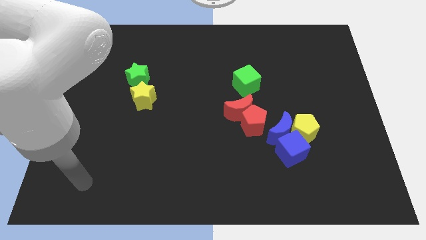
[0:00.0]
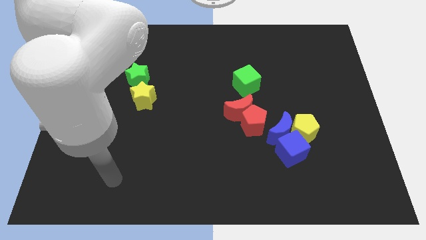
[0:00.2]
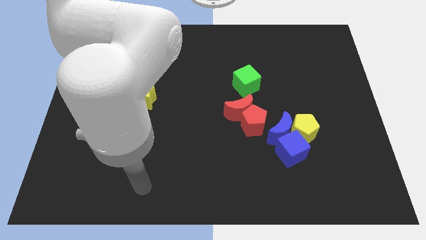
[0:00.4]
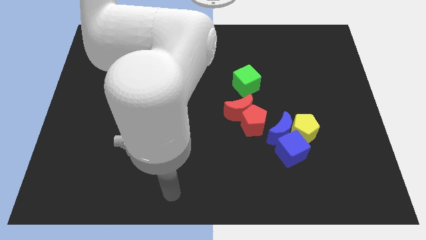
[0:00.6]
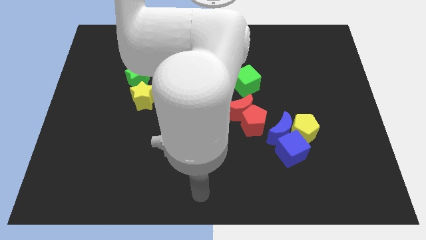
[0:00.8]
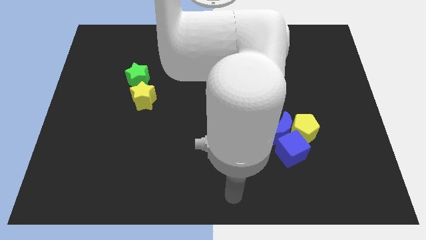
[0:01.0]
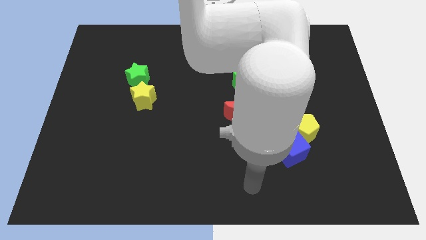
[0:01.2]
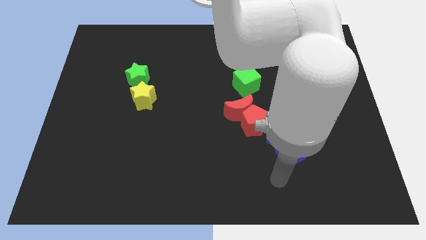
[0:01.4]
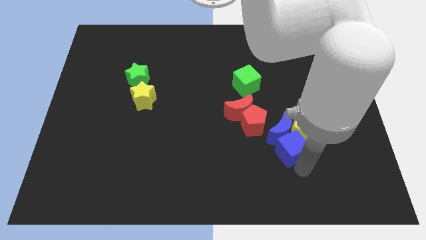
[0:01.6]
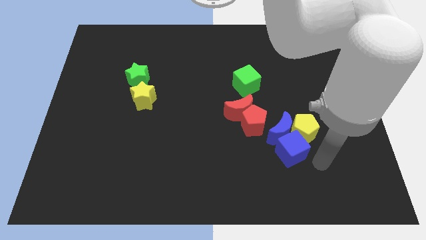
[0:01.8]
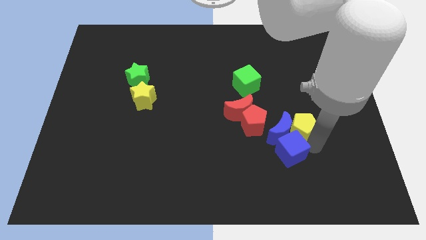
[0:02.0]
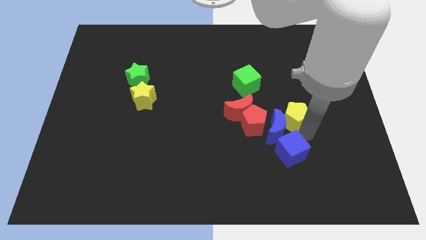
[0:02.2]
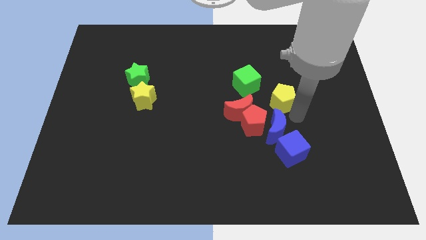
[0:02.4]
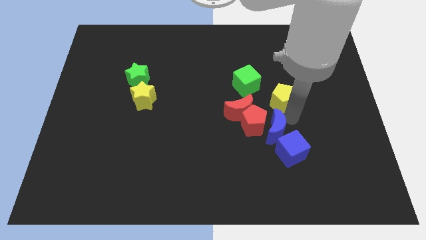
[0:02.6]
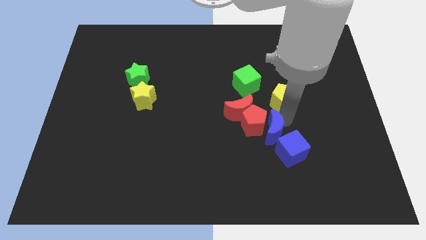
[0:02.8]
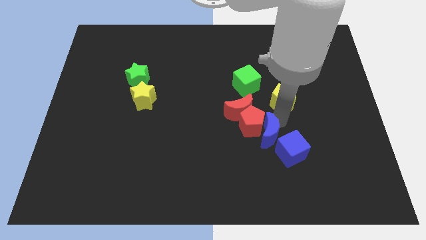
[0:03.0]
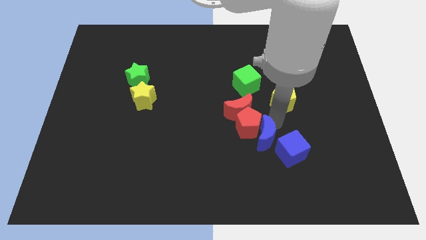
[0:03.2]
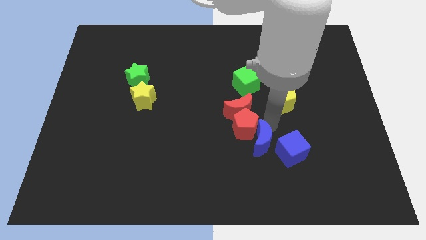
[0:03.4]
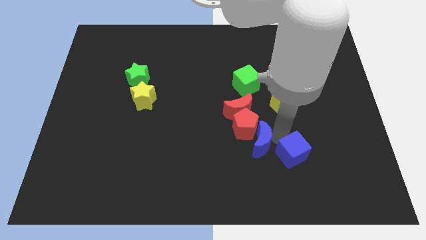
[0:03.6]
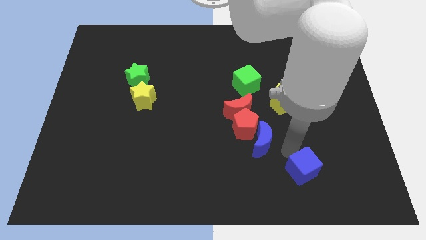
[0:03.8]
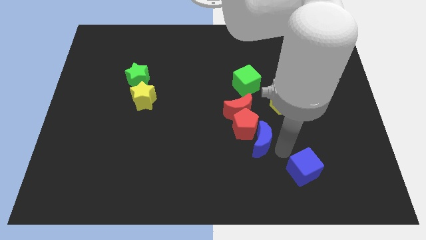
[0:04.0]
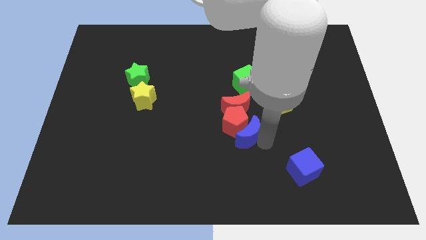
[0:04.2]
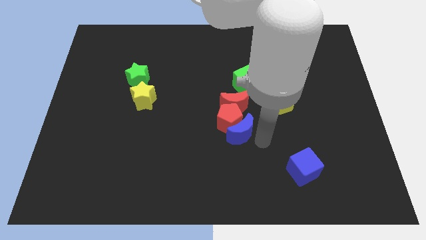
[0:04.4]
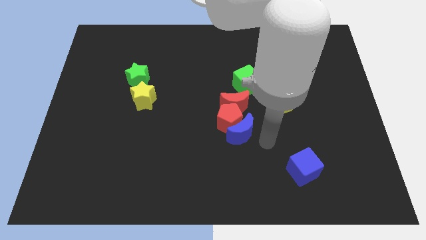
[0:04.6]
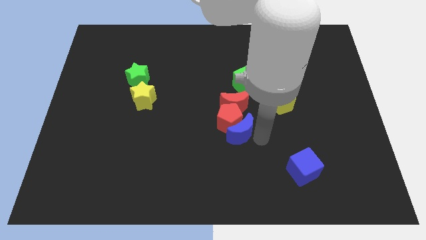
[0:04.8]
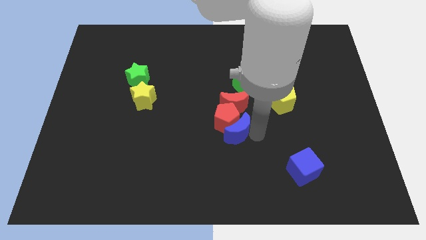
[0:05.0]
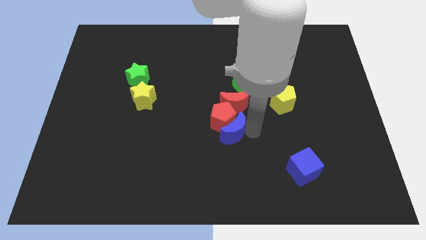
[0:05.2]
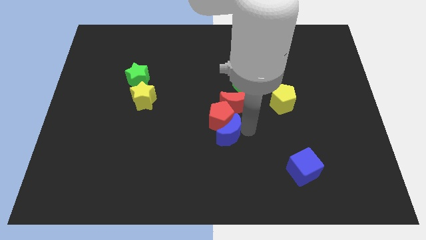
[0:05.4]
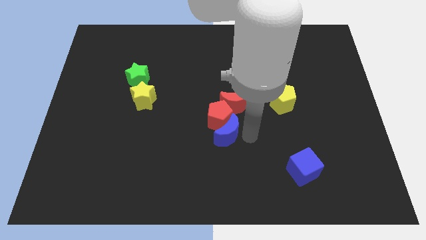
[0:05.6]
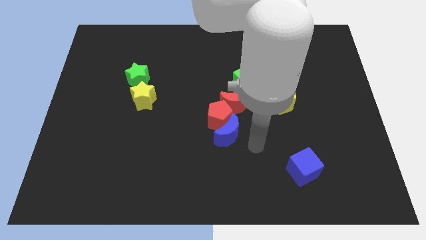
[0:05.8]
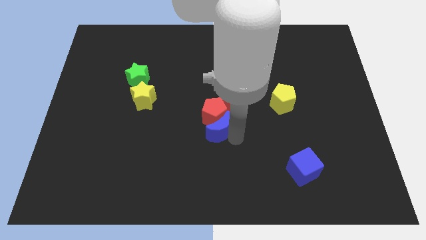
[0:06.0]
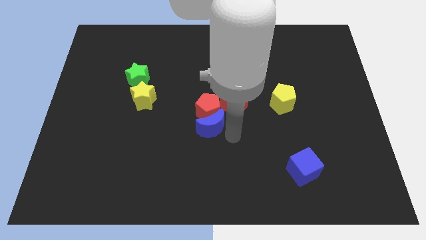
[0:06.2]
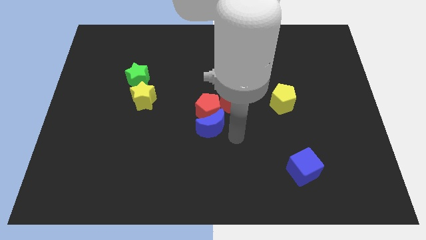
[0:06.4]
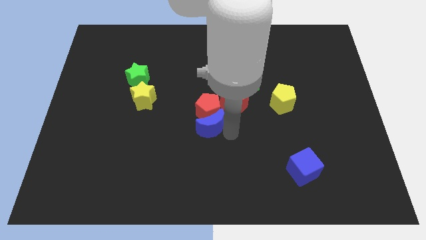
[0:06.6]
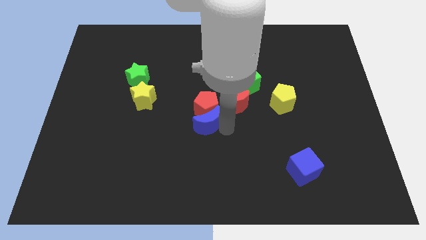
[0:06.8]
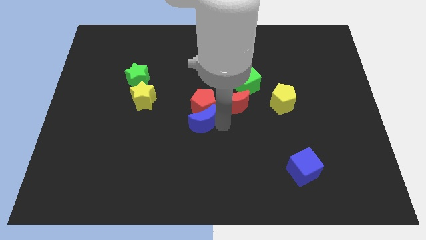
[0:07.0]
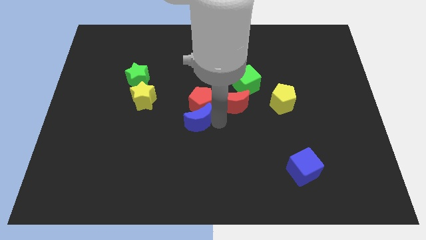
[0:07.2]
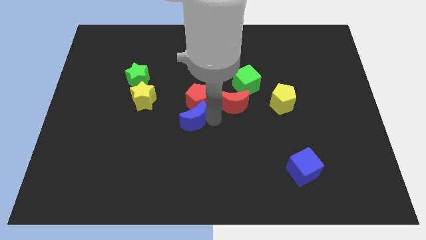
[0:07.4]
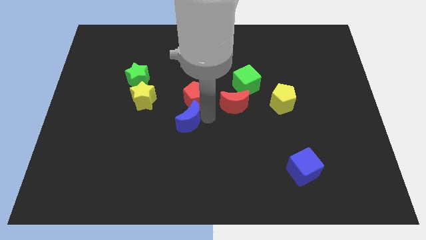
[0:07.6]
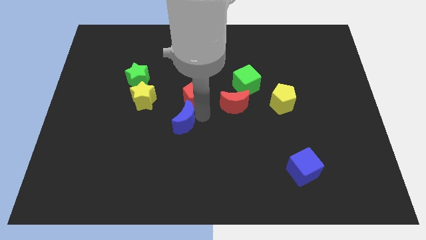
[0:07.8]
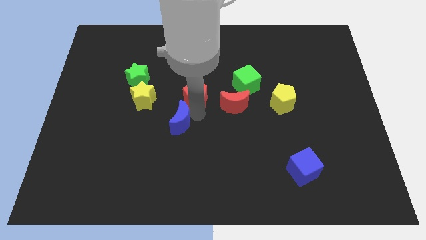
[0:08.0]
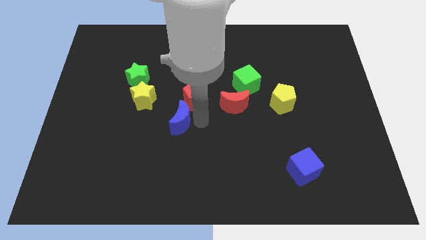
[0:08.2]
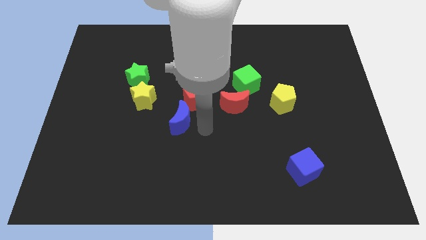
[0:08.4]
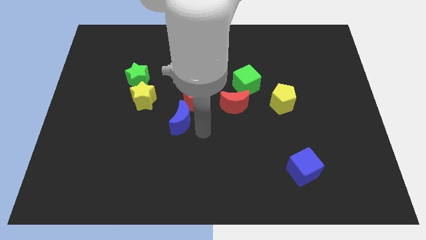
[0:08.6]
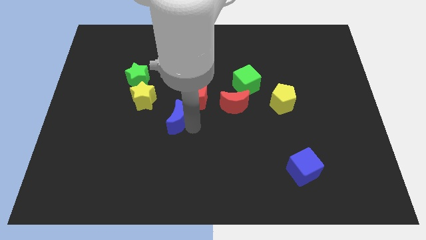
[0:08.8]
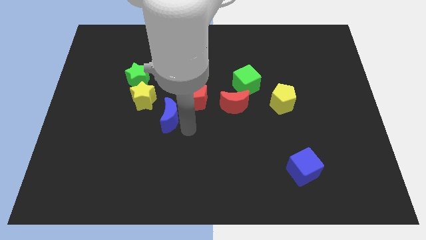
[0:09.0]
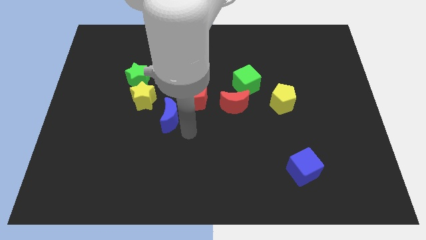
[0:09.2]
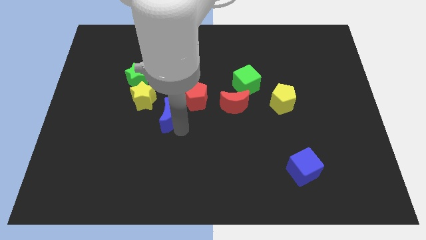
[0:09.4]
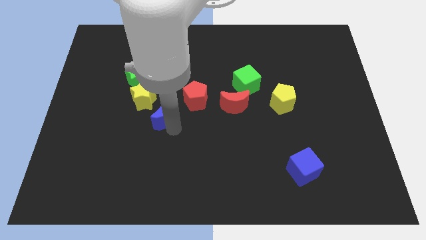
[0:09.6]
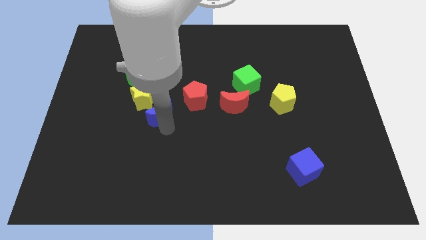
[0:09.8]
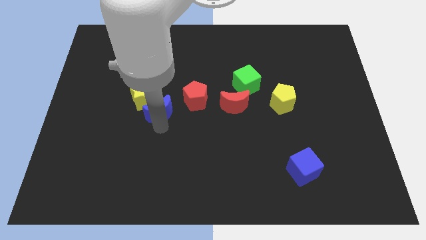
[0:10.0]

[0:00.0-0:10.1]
push the blue moon next to the yellow star

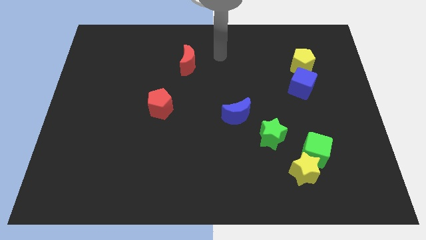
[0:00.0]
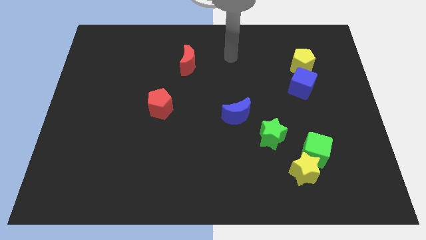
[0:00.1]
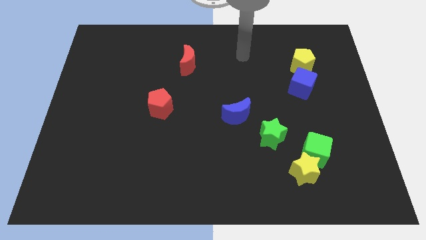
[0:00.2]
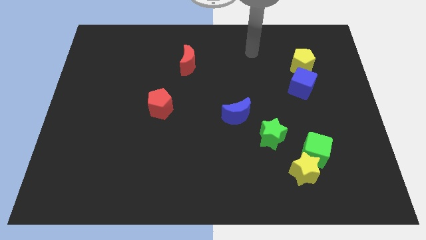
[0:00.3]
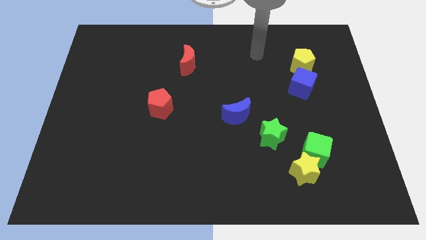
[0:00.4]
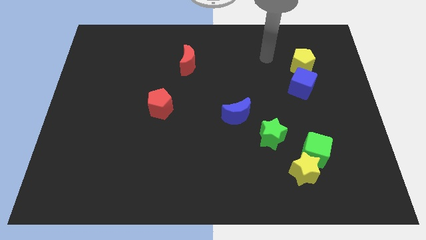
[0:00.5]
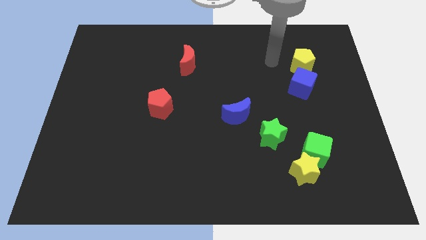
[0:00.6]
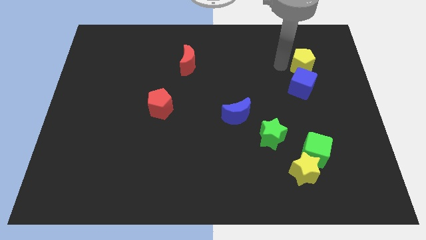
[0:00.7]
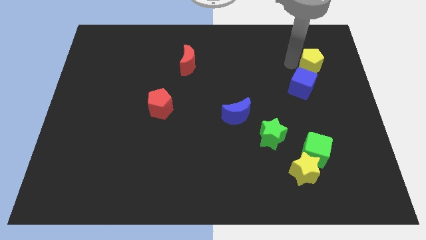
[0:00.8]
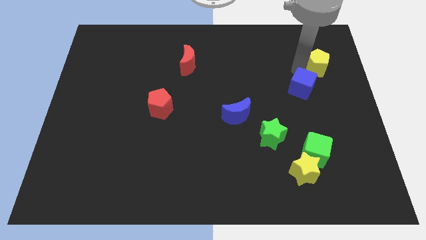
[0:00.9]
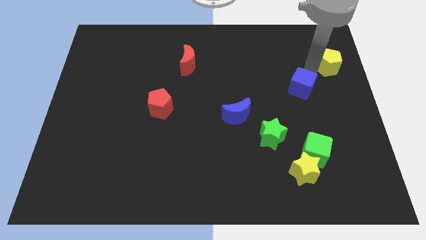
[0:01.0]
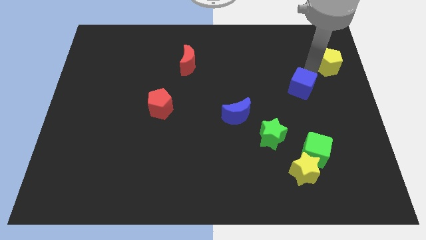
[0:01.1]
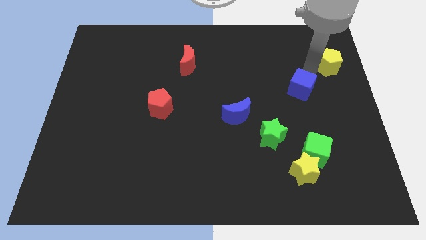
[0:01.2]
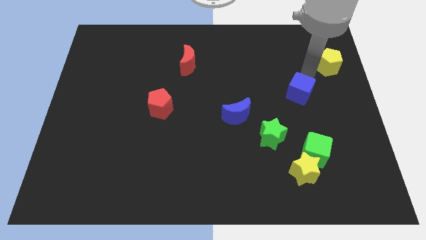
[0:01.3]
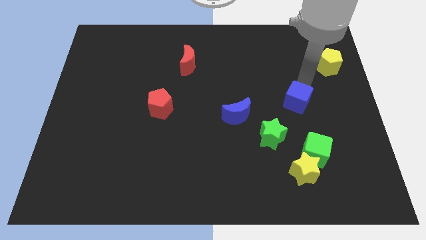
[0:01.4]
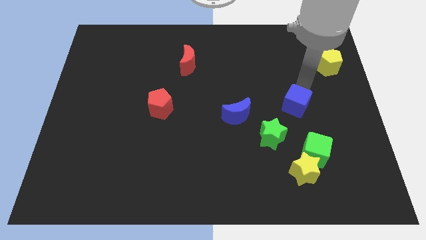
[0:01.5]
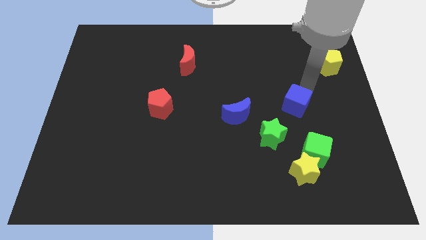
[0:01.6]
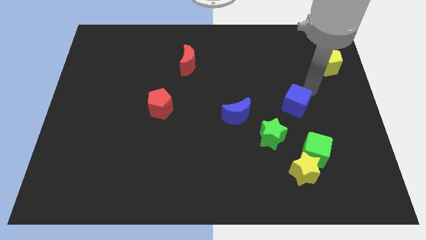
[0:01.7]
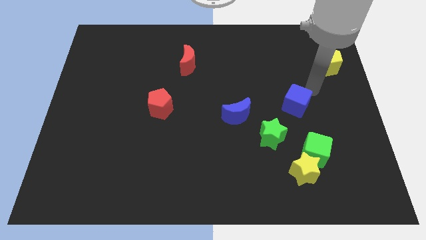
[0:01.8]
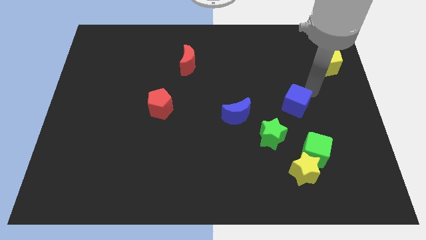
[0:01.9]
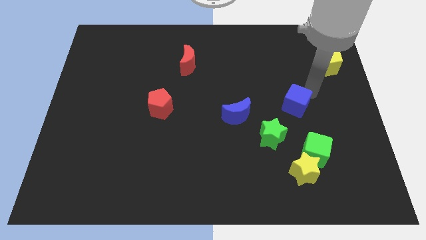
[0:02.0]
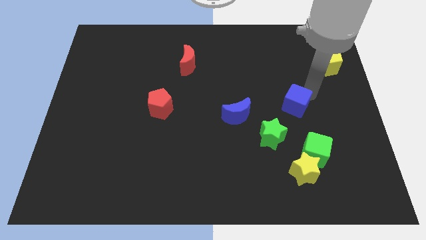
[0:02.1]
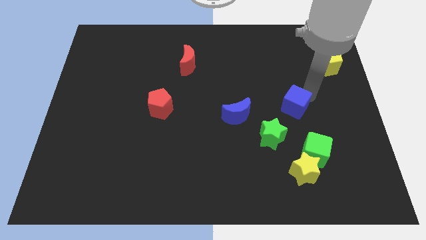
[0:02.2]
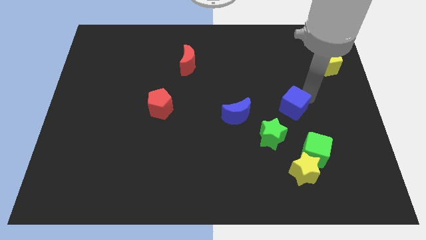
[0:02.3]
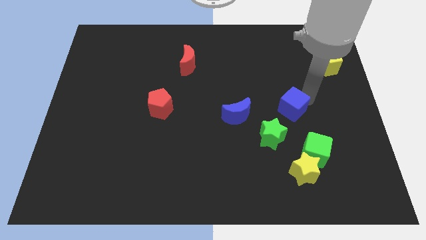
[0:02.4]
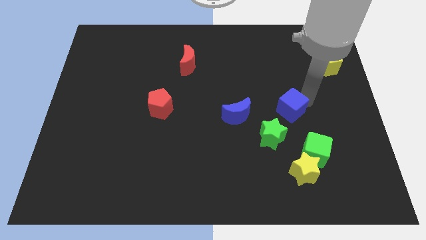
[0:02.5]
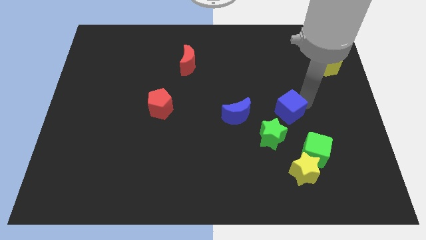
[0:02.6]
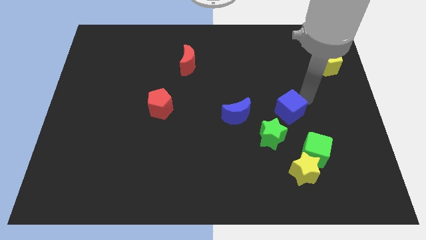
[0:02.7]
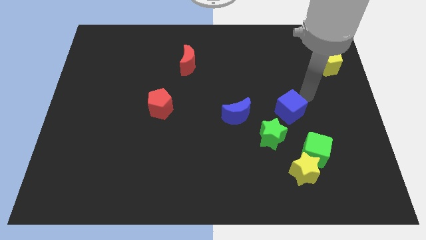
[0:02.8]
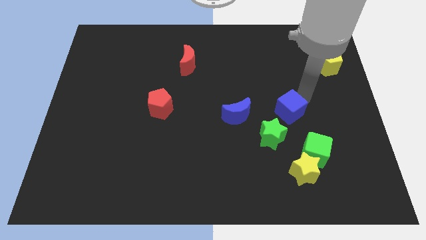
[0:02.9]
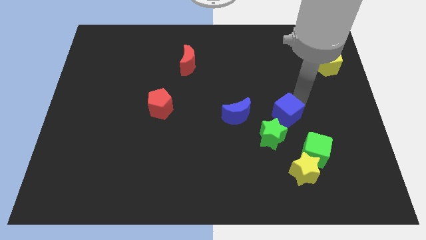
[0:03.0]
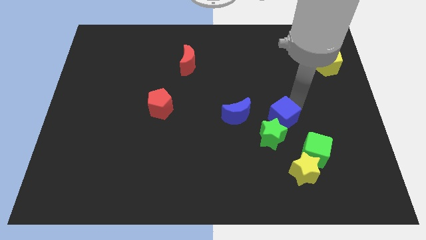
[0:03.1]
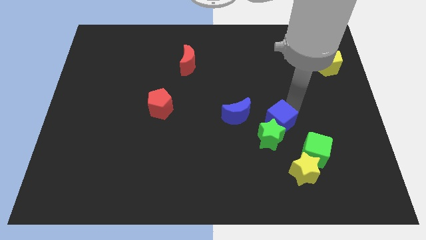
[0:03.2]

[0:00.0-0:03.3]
slide the blue cube close to the green star
